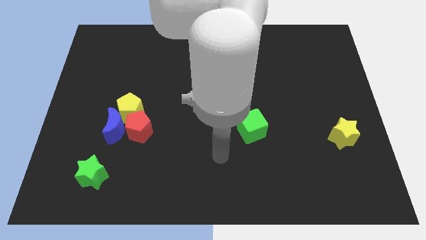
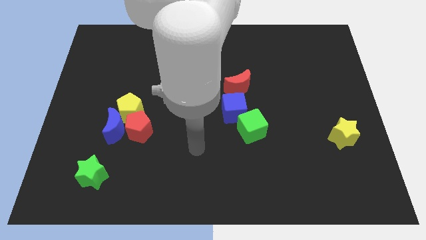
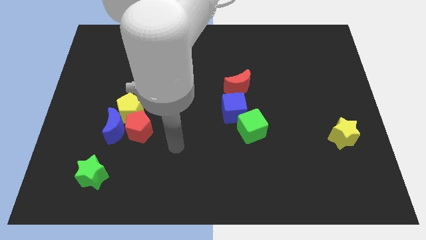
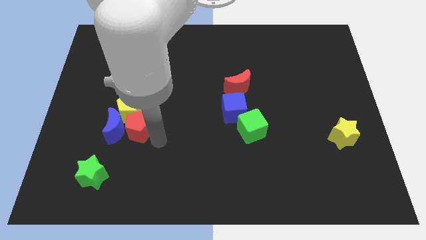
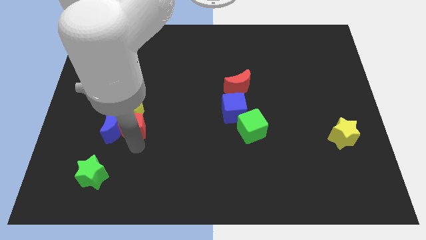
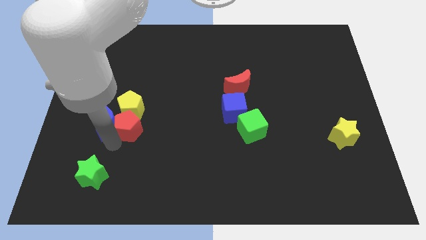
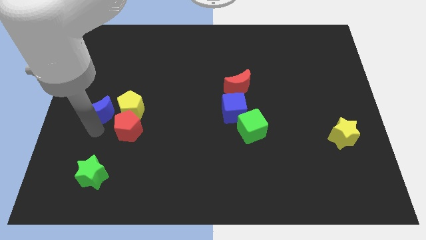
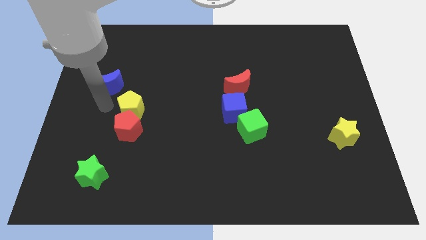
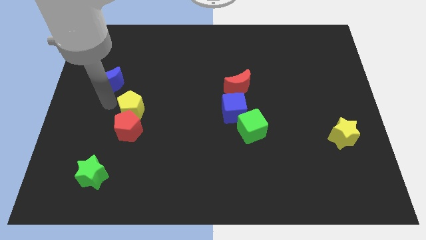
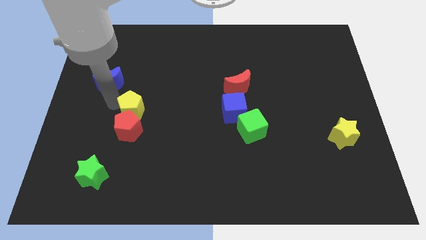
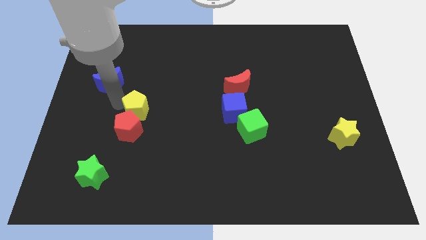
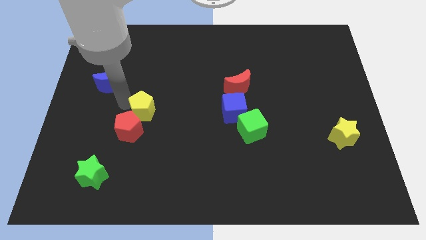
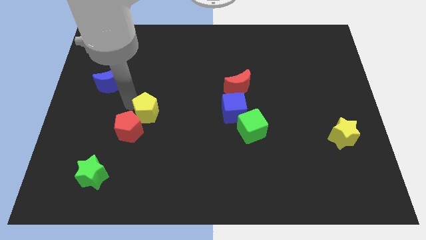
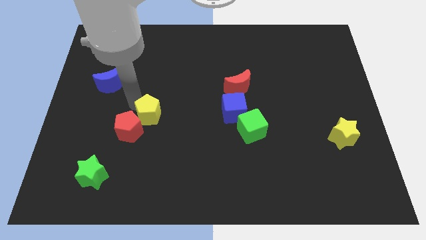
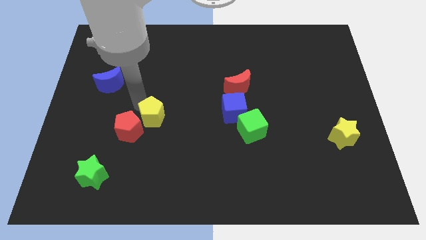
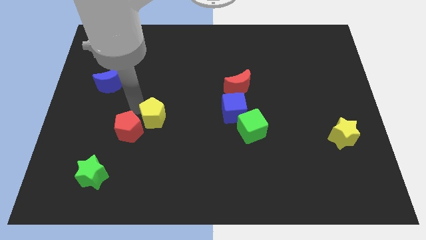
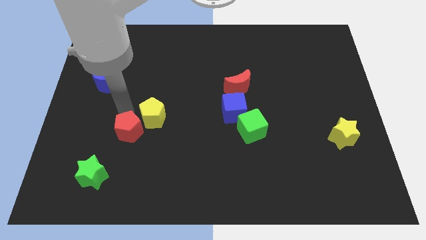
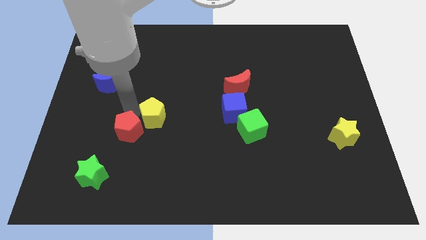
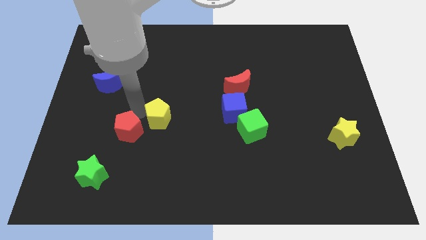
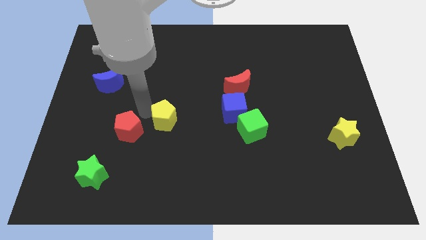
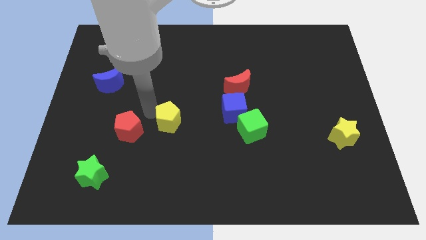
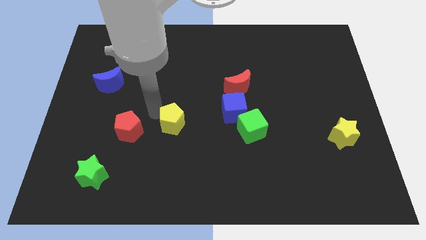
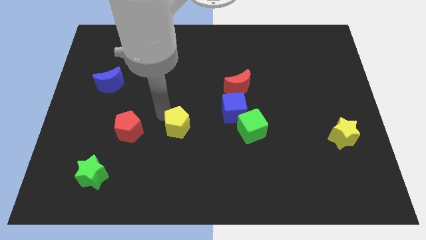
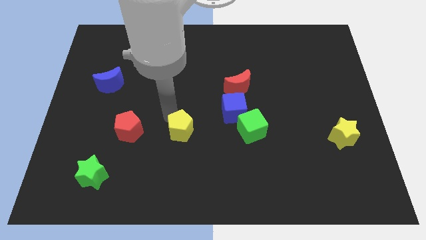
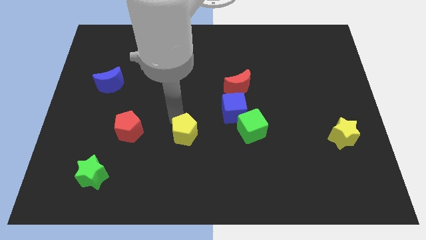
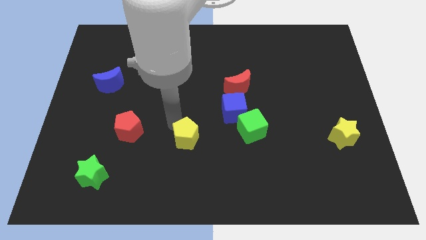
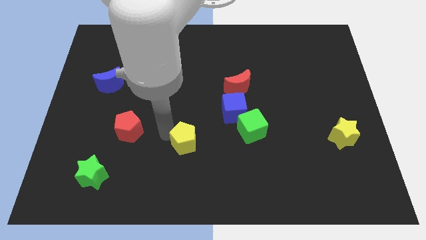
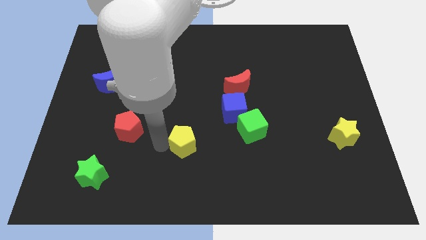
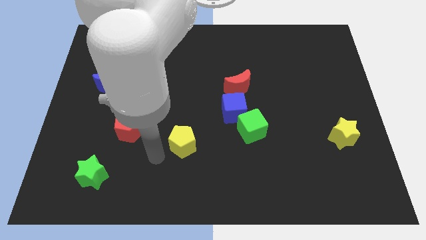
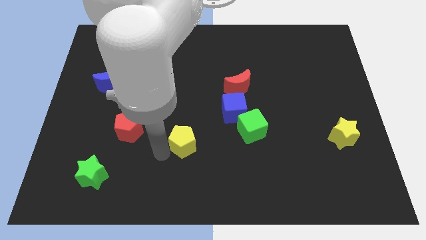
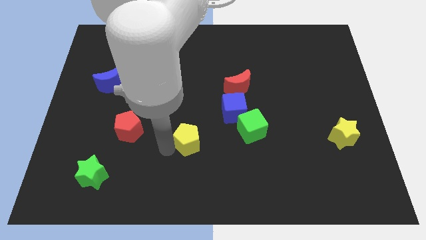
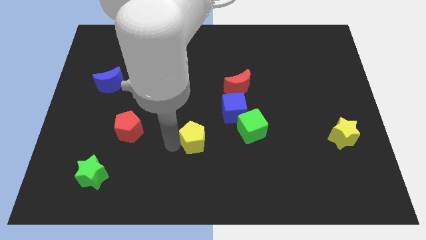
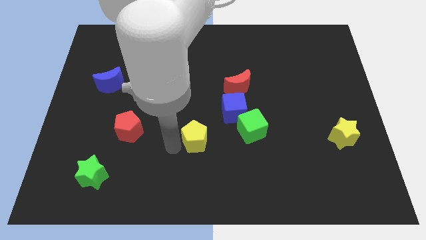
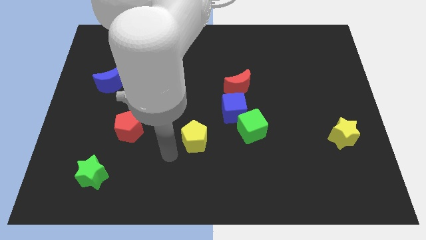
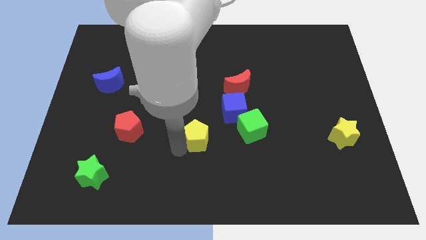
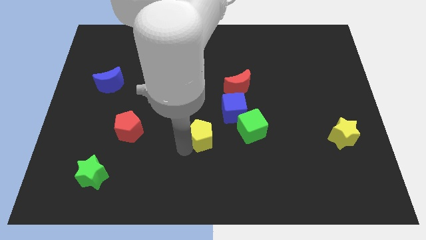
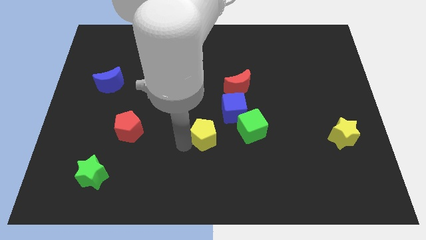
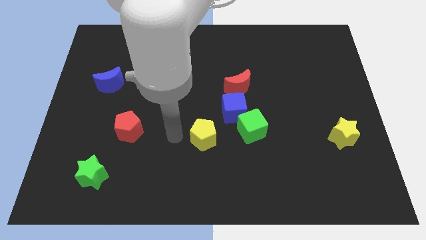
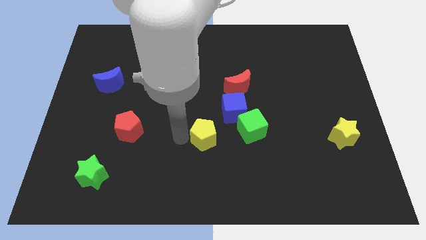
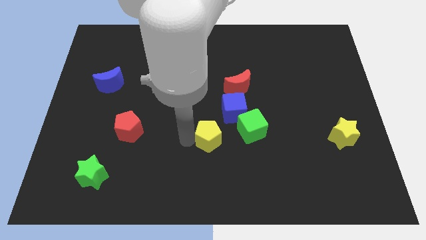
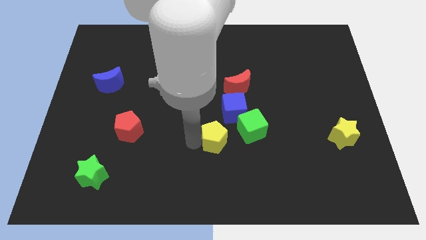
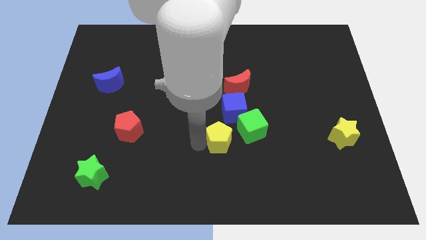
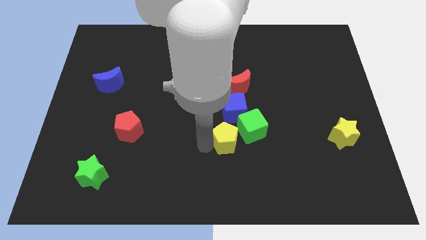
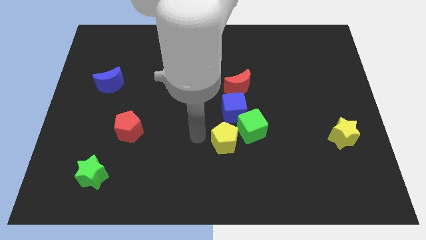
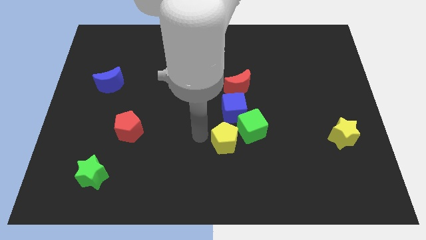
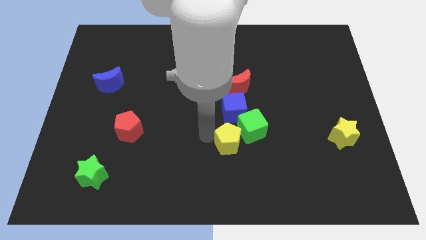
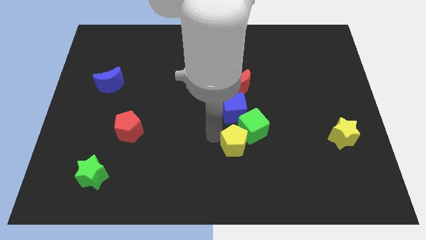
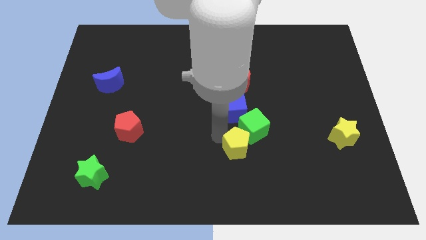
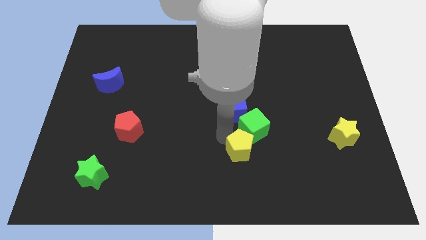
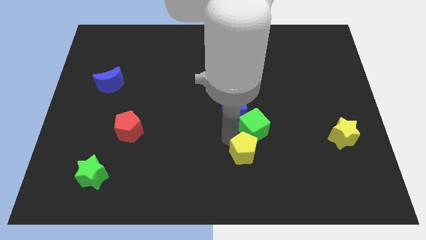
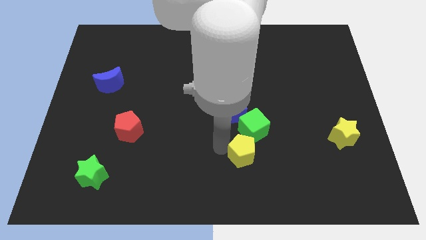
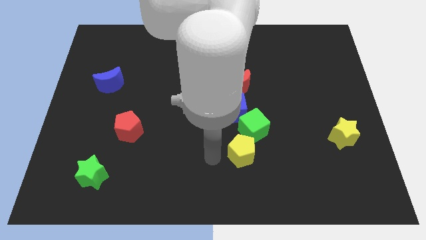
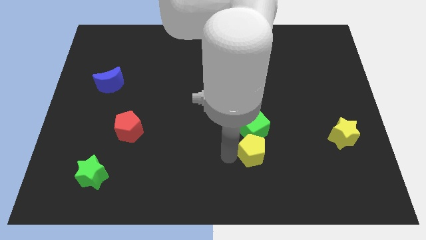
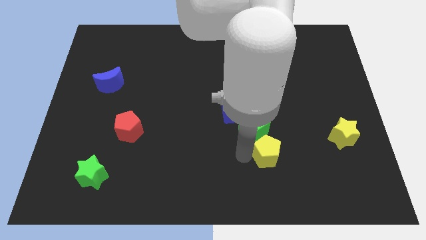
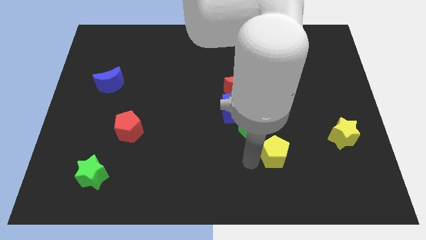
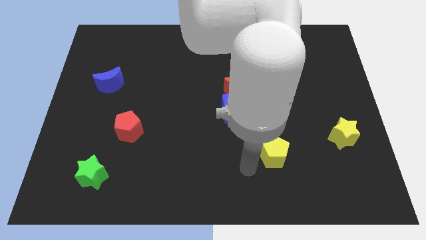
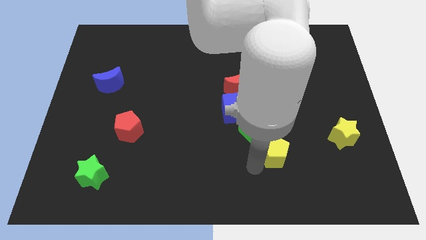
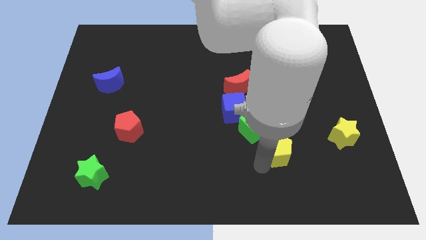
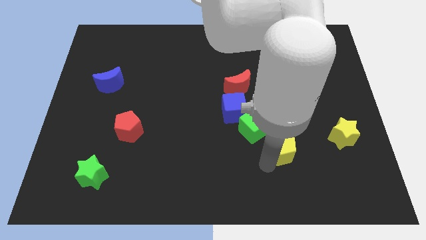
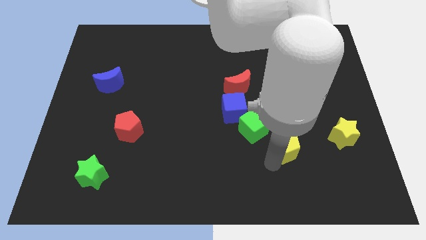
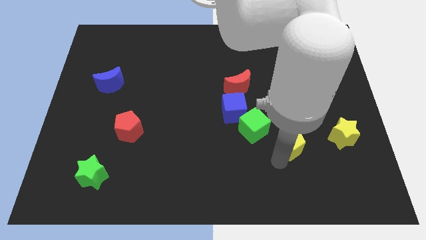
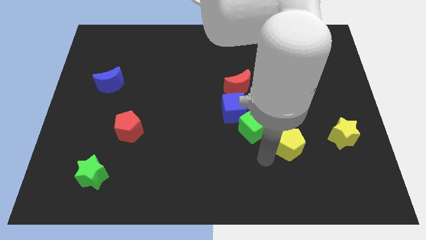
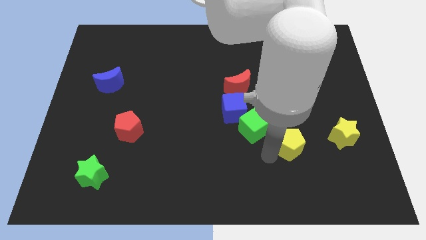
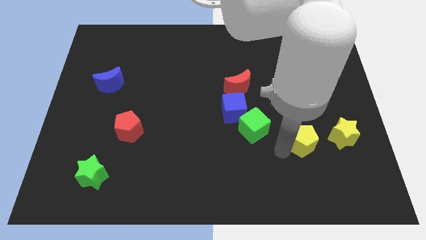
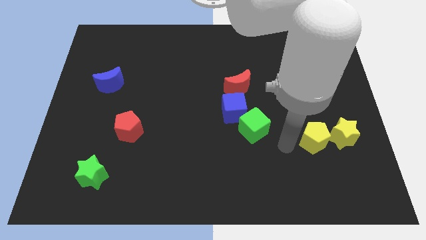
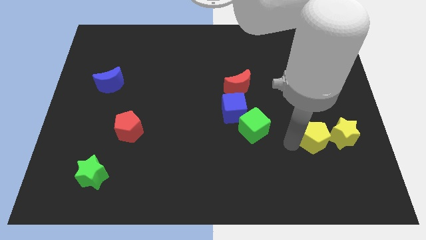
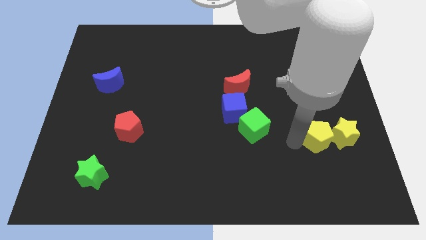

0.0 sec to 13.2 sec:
move the yellow pentagon to the yellow star

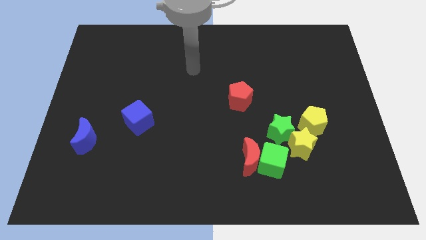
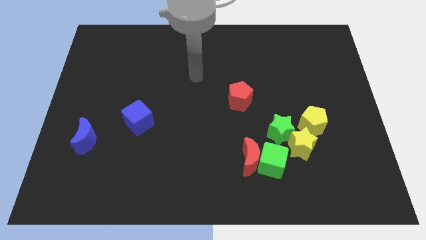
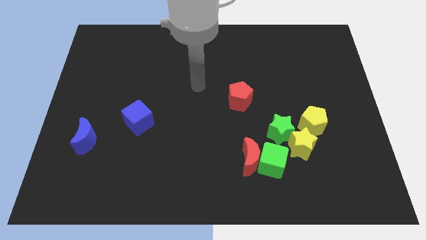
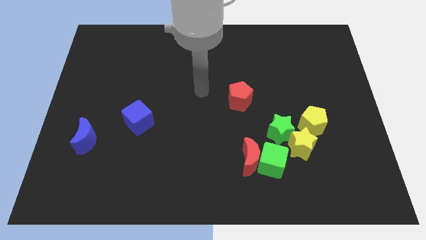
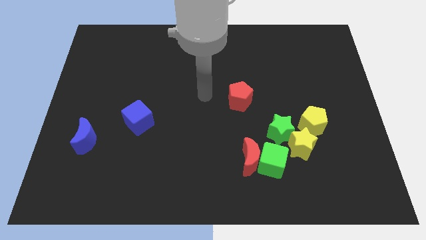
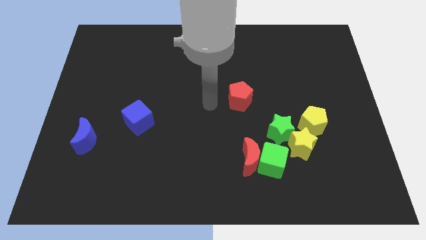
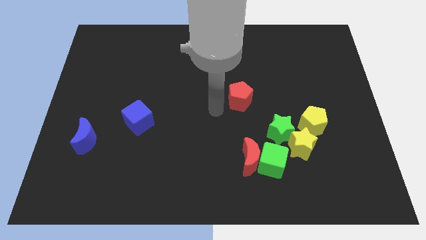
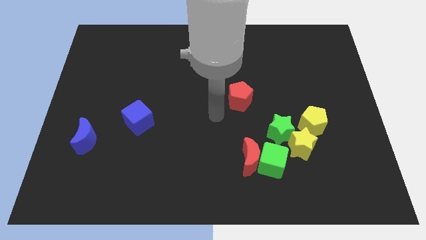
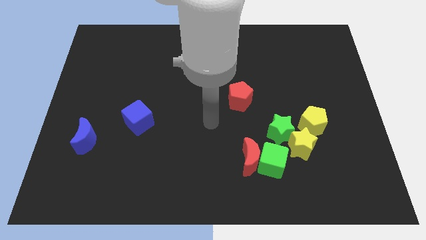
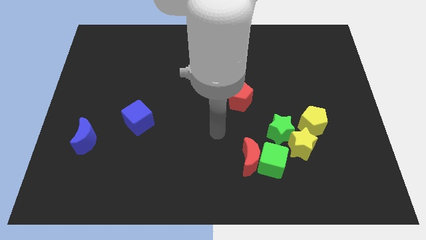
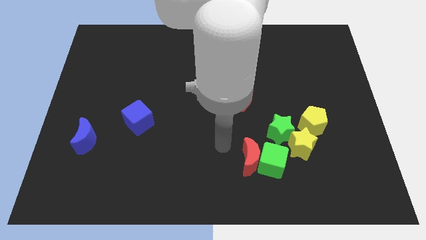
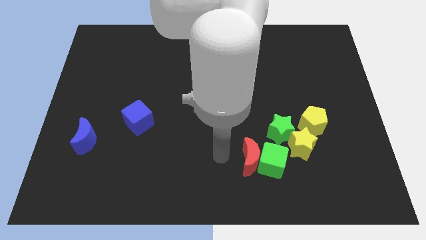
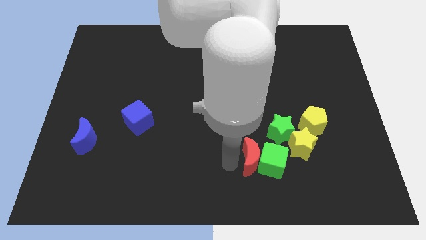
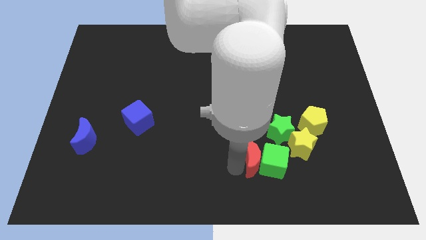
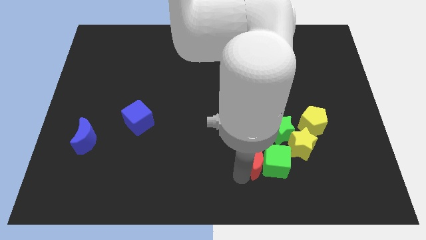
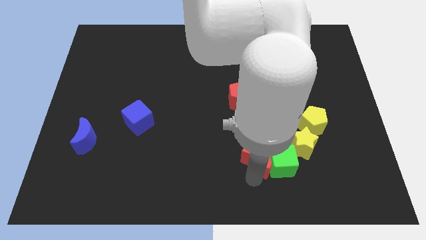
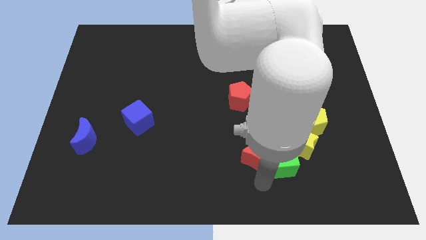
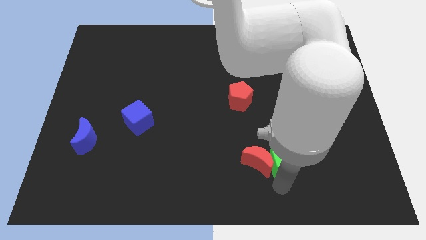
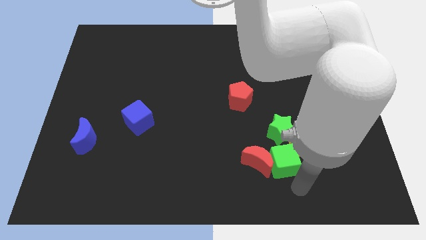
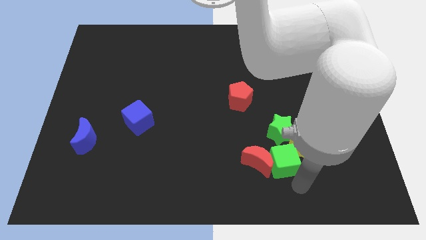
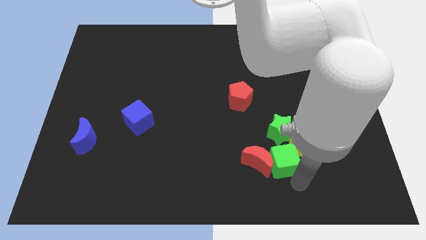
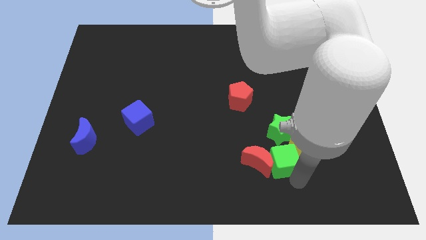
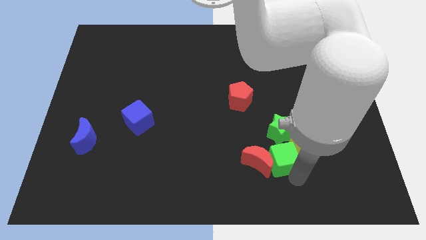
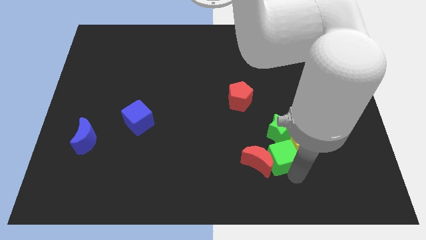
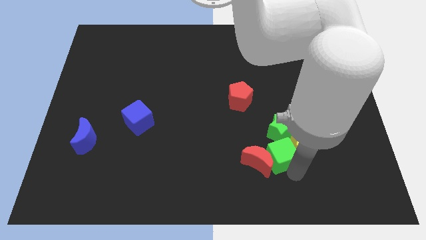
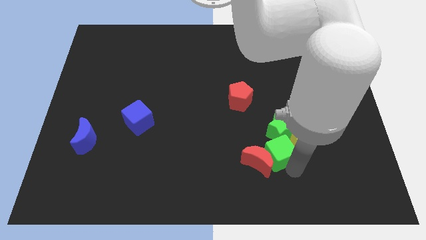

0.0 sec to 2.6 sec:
move the green cube close to the green star
